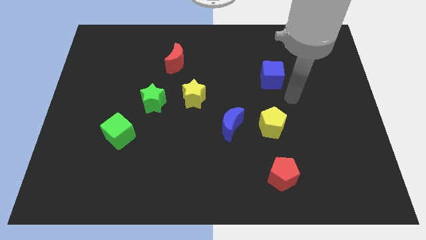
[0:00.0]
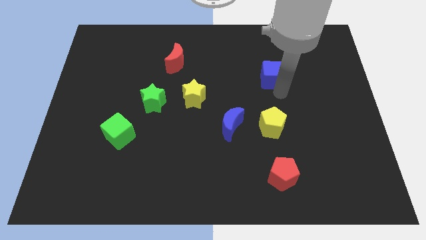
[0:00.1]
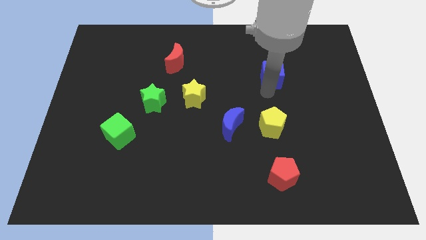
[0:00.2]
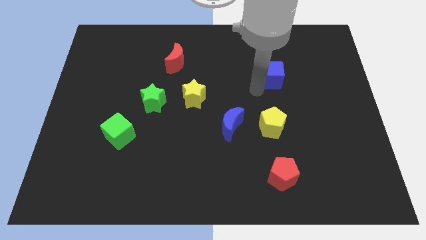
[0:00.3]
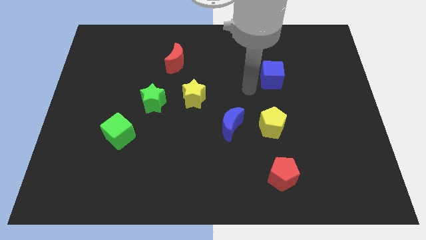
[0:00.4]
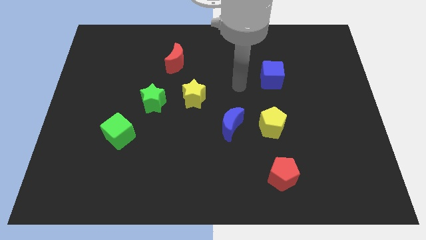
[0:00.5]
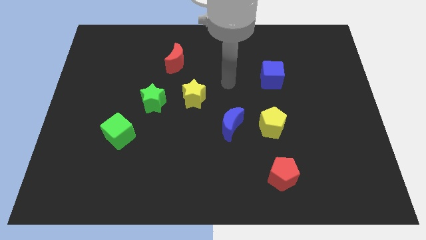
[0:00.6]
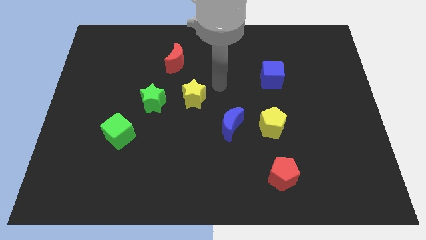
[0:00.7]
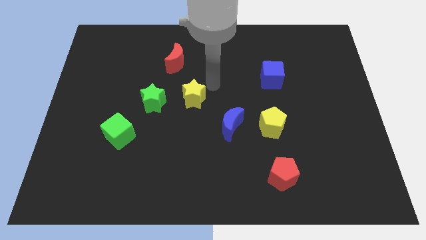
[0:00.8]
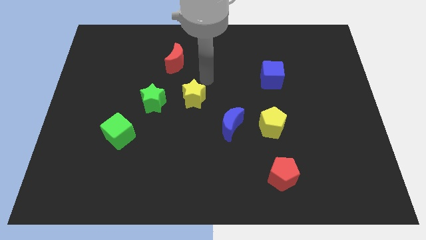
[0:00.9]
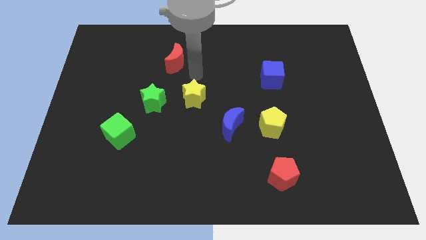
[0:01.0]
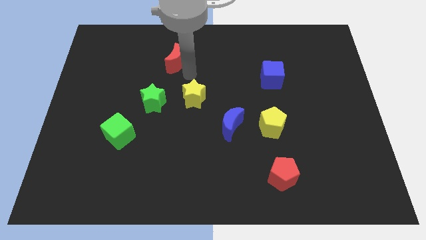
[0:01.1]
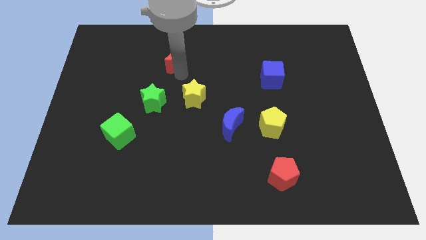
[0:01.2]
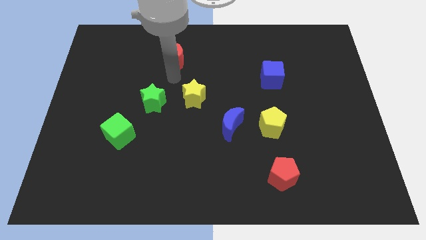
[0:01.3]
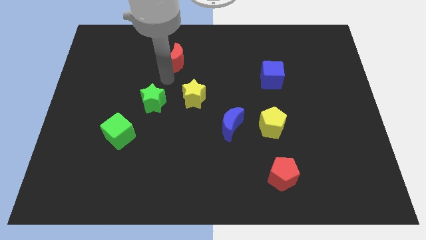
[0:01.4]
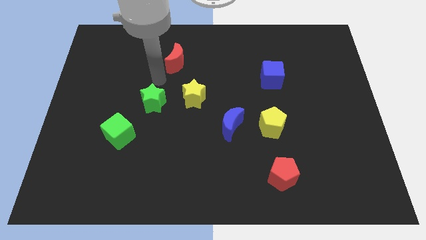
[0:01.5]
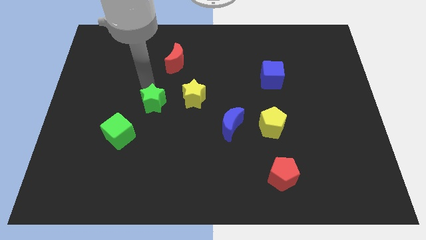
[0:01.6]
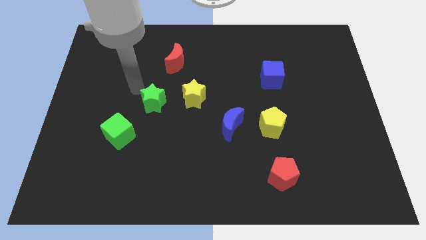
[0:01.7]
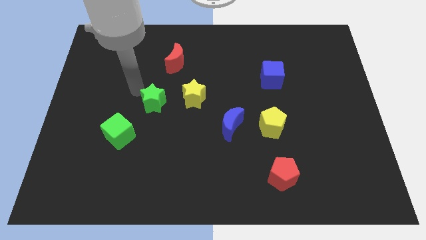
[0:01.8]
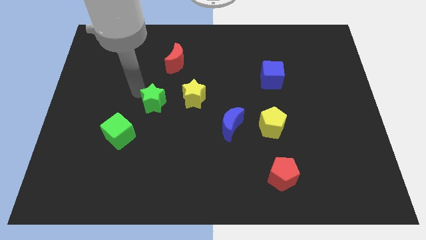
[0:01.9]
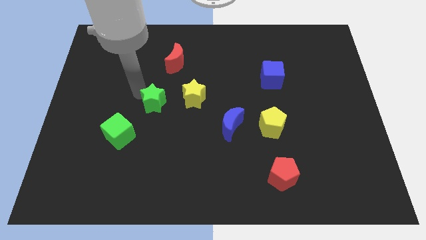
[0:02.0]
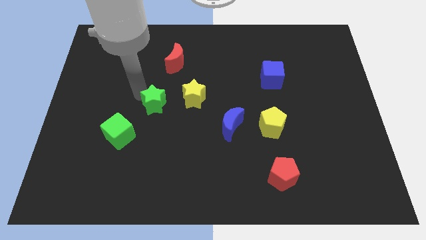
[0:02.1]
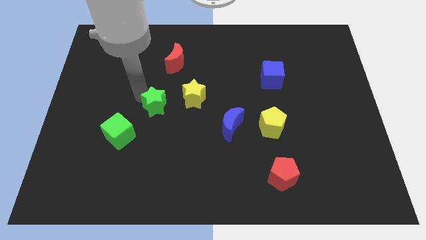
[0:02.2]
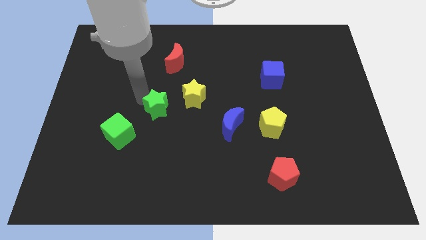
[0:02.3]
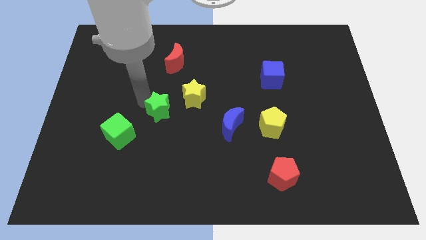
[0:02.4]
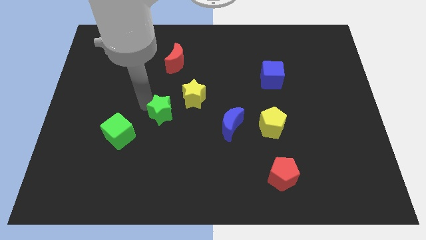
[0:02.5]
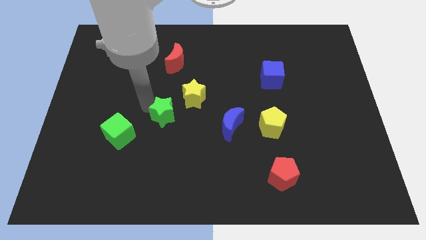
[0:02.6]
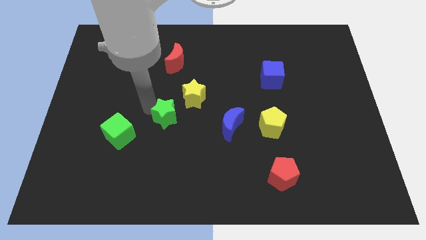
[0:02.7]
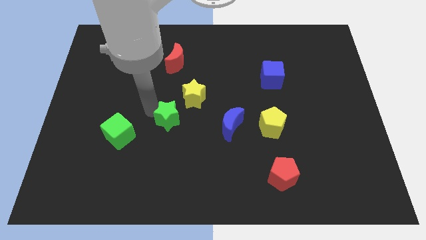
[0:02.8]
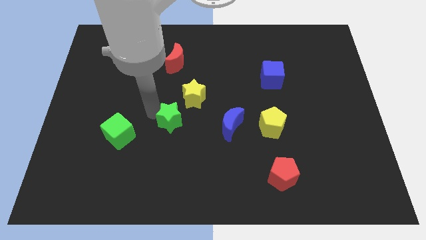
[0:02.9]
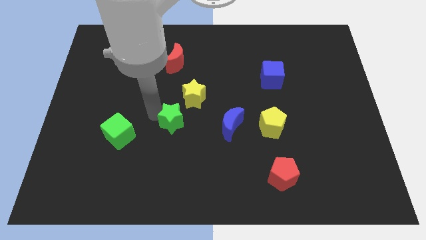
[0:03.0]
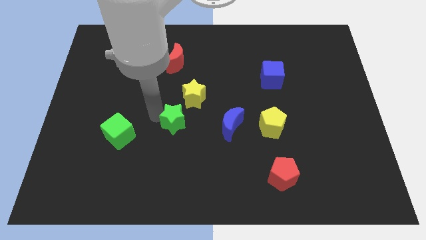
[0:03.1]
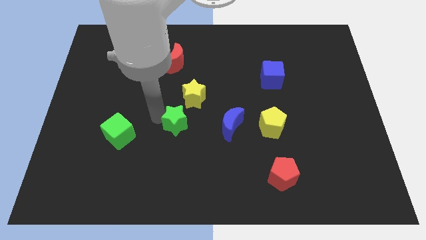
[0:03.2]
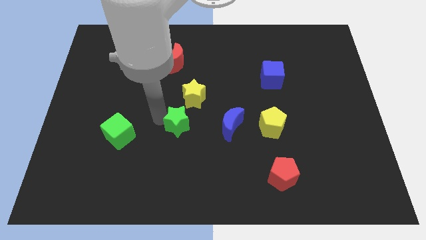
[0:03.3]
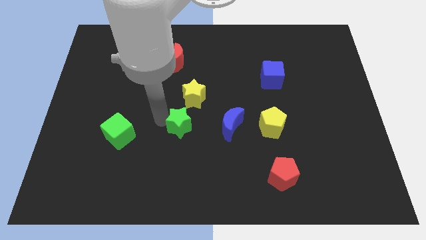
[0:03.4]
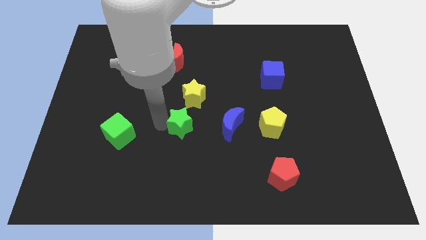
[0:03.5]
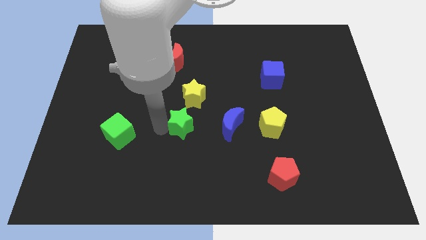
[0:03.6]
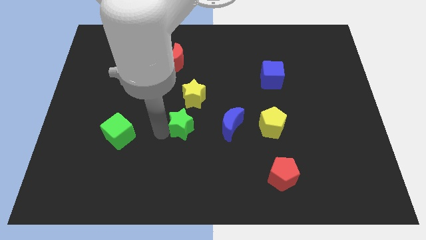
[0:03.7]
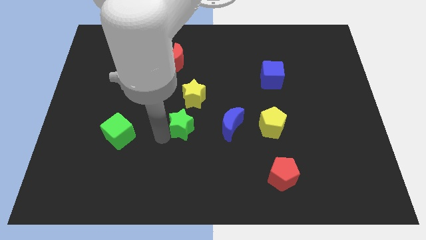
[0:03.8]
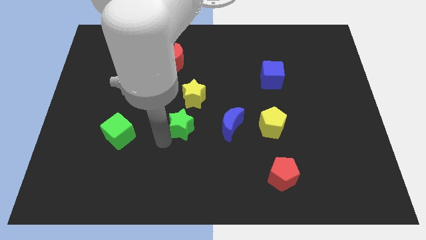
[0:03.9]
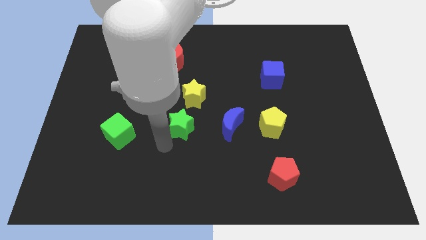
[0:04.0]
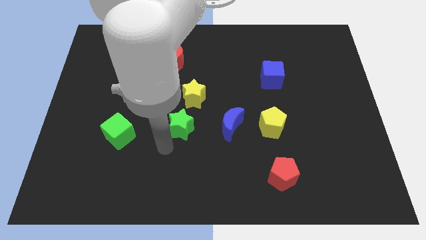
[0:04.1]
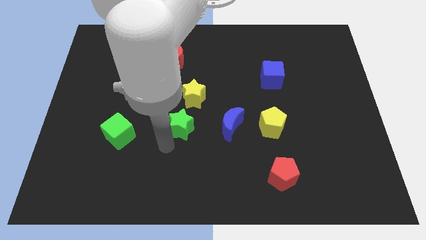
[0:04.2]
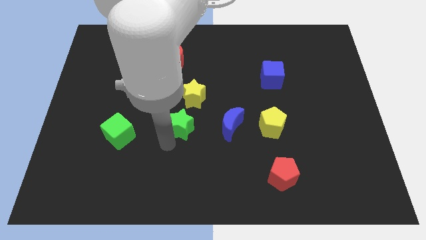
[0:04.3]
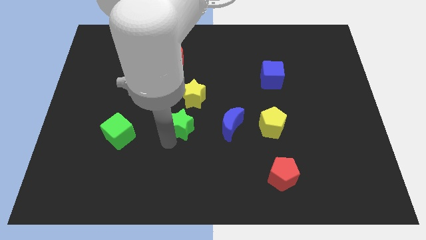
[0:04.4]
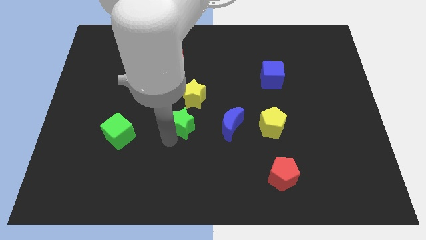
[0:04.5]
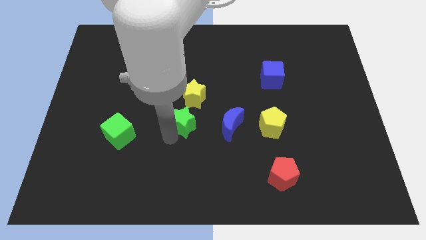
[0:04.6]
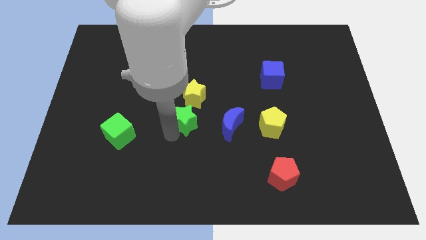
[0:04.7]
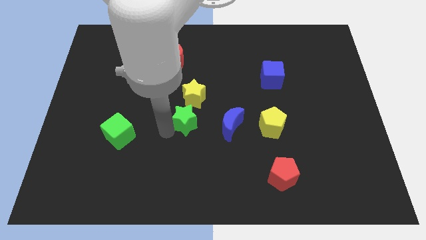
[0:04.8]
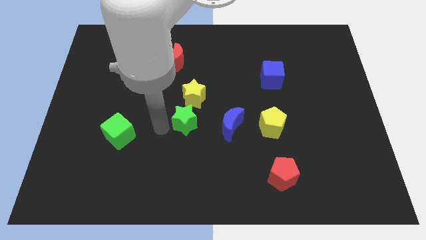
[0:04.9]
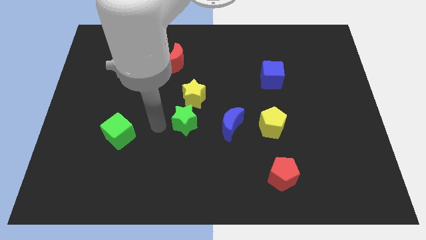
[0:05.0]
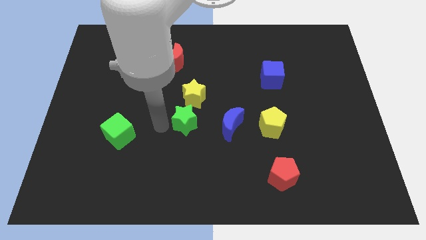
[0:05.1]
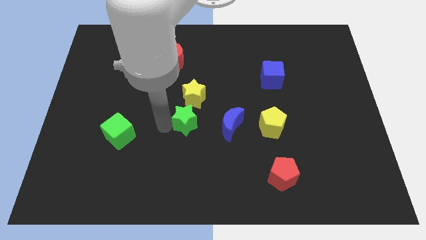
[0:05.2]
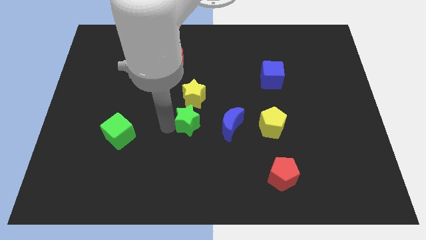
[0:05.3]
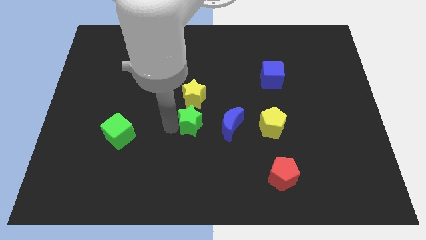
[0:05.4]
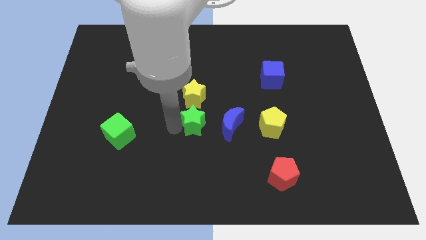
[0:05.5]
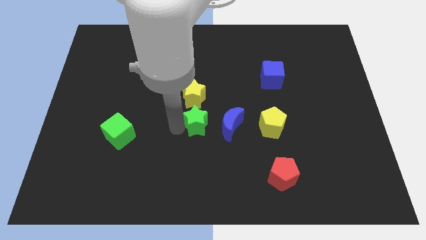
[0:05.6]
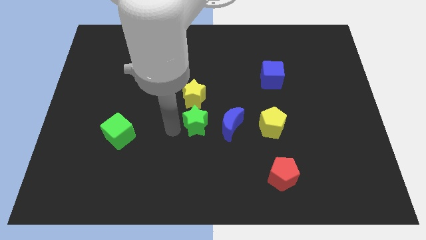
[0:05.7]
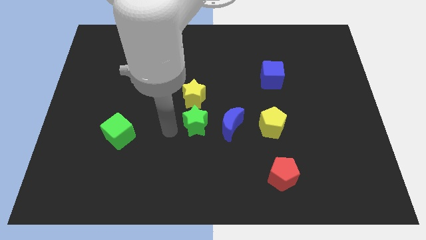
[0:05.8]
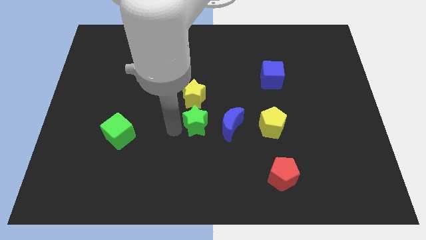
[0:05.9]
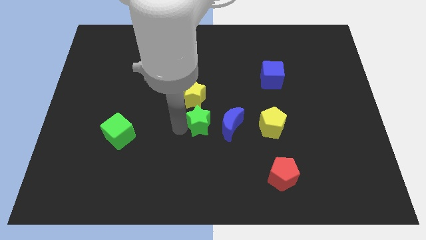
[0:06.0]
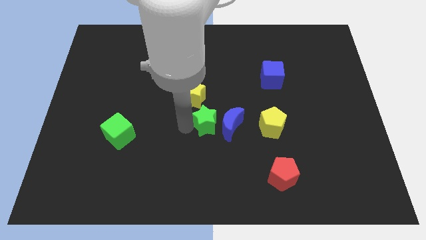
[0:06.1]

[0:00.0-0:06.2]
slide the green star to the blue moon

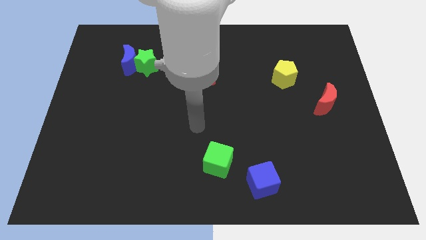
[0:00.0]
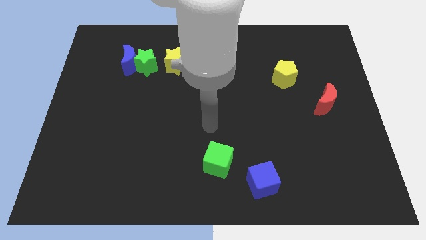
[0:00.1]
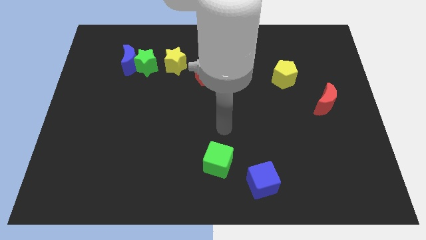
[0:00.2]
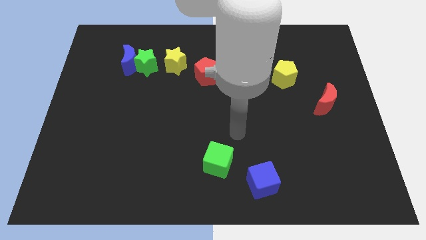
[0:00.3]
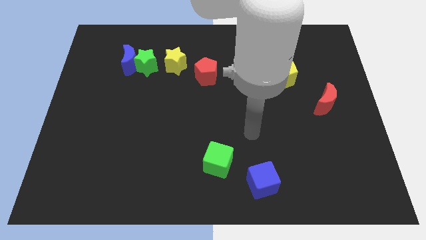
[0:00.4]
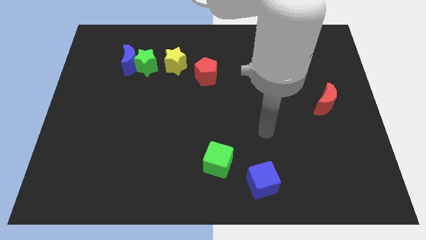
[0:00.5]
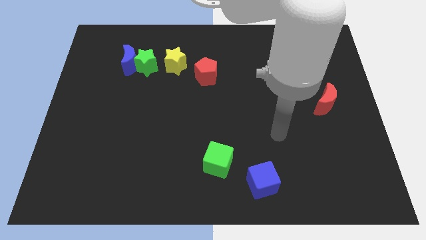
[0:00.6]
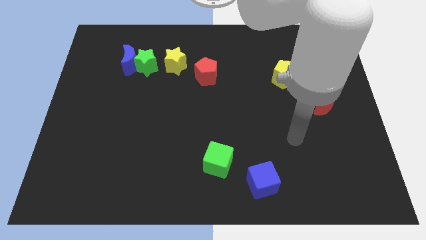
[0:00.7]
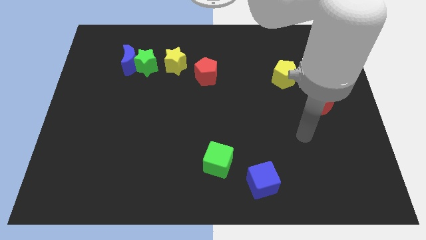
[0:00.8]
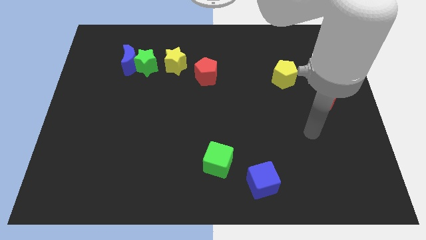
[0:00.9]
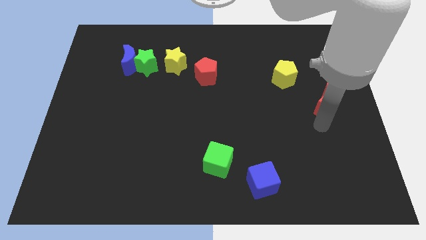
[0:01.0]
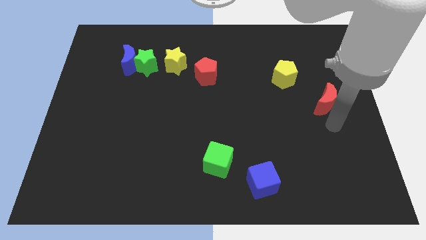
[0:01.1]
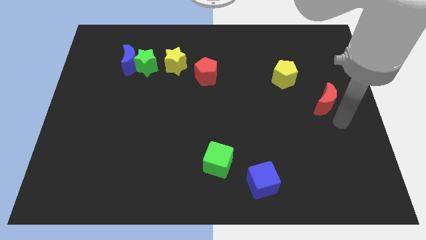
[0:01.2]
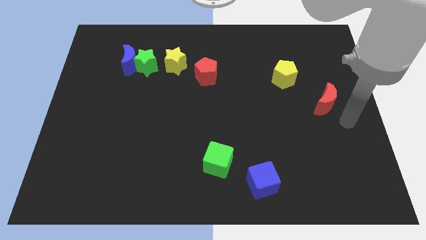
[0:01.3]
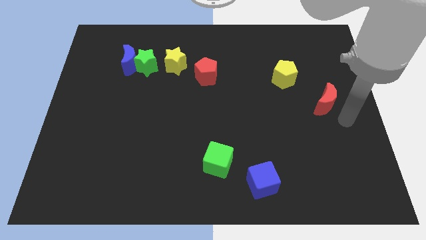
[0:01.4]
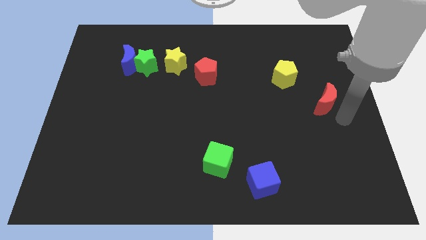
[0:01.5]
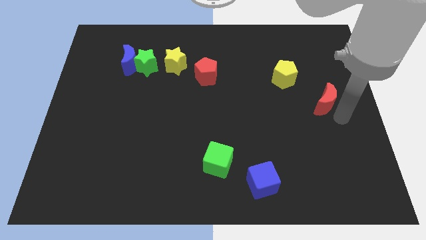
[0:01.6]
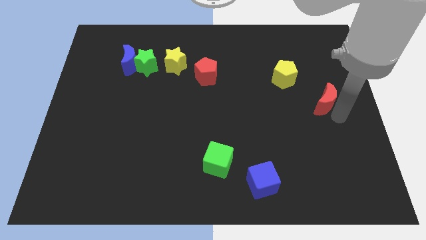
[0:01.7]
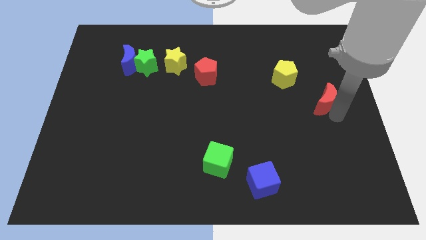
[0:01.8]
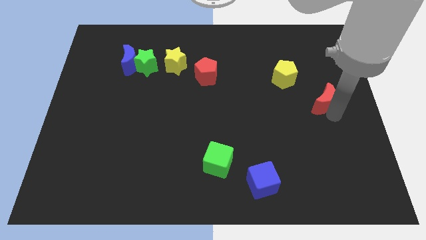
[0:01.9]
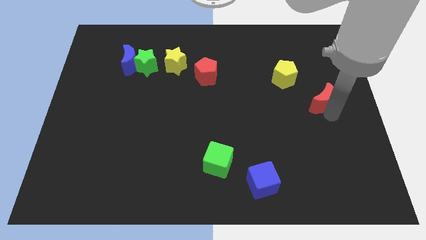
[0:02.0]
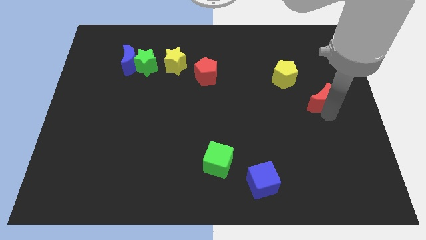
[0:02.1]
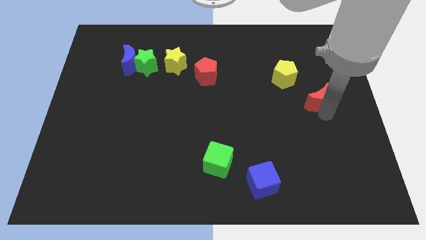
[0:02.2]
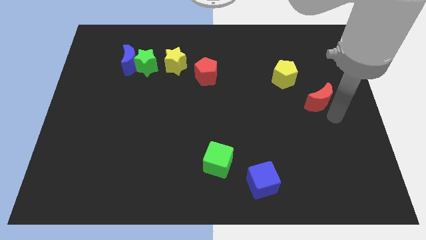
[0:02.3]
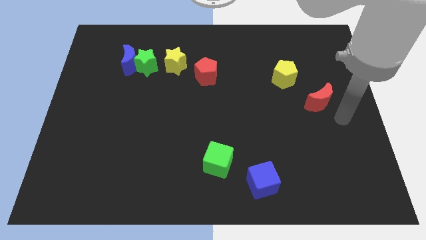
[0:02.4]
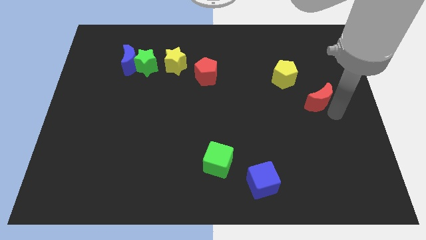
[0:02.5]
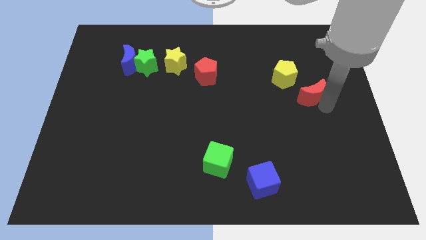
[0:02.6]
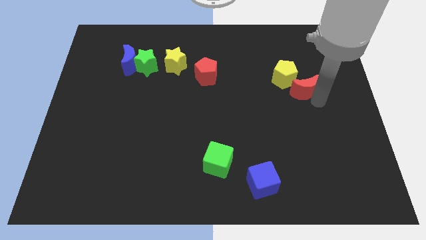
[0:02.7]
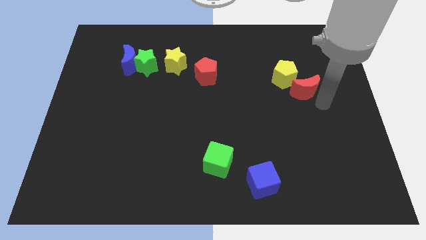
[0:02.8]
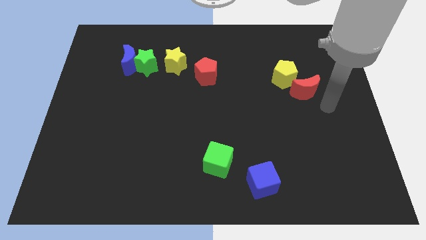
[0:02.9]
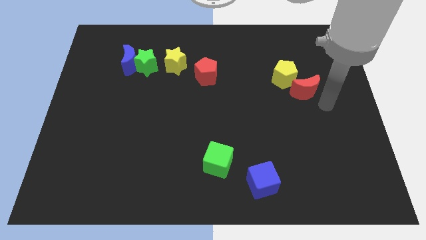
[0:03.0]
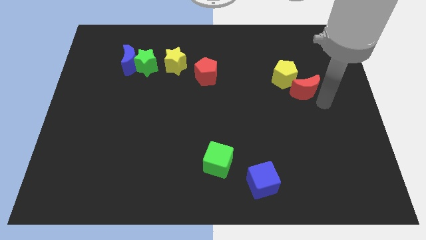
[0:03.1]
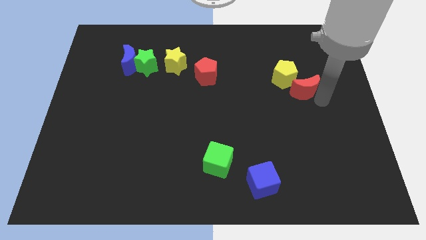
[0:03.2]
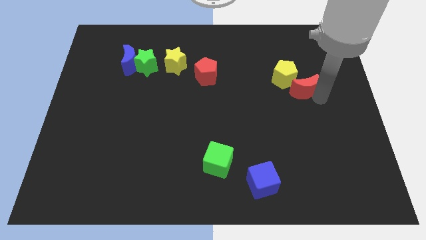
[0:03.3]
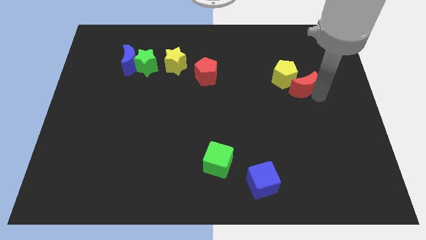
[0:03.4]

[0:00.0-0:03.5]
move the red moon close to the yellow pentagon
